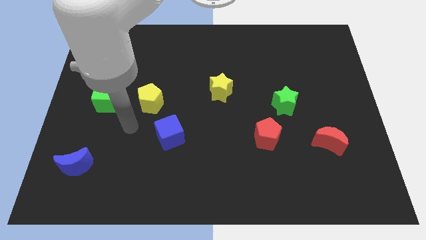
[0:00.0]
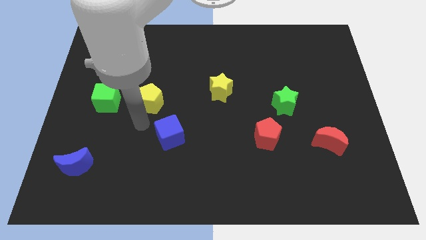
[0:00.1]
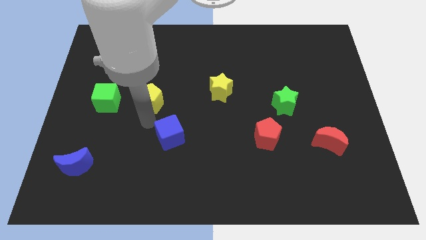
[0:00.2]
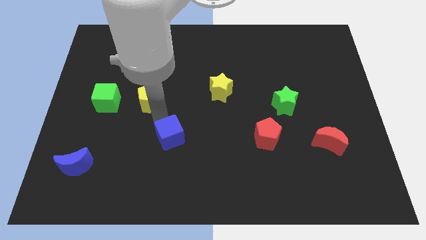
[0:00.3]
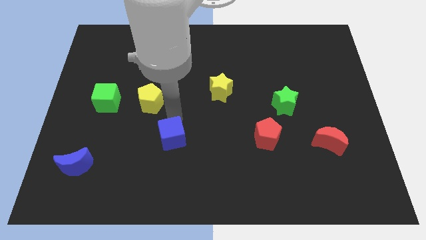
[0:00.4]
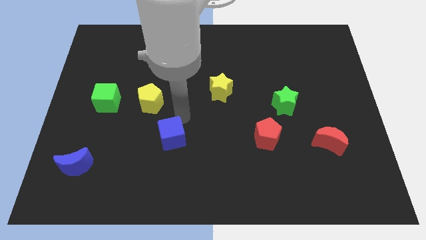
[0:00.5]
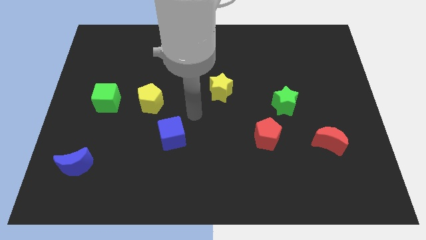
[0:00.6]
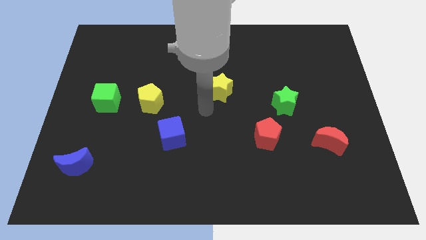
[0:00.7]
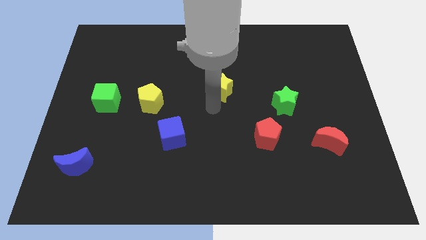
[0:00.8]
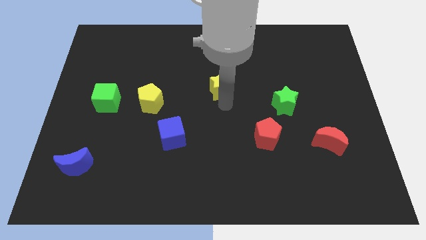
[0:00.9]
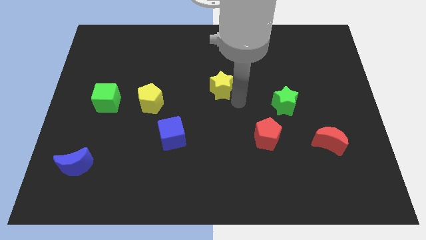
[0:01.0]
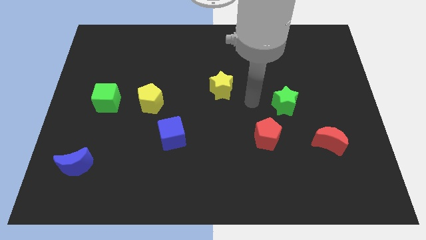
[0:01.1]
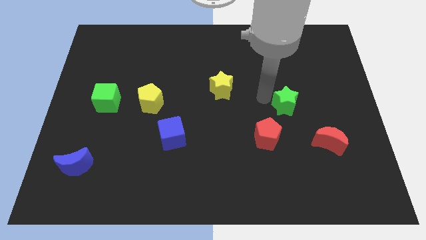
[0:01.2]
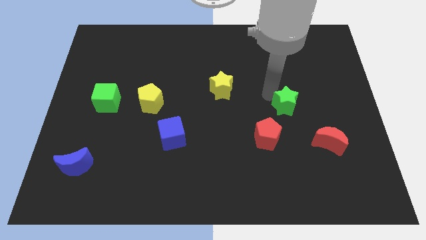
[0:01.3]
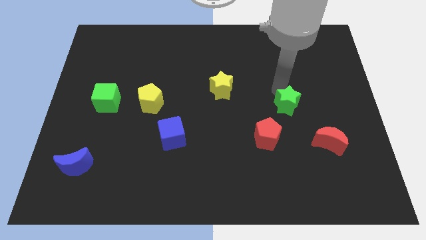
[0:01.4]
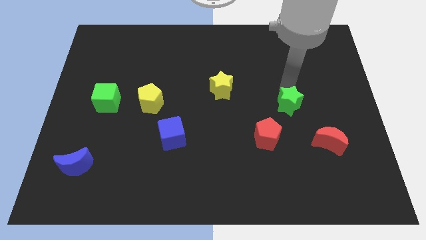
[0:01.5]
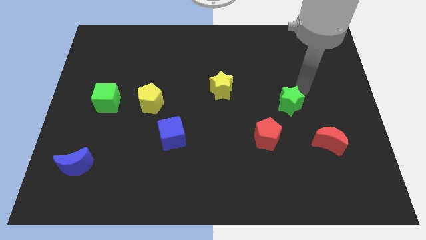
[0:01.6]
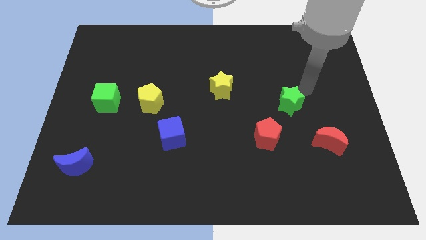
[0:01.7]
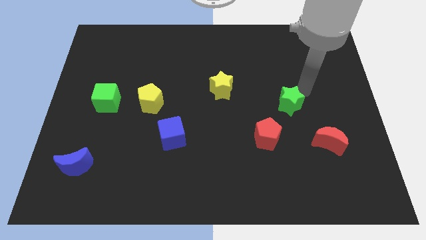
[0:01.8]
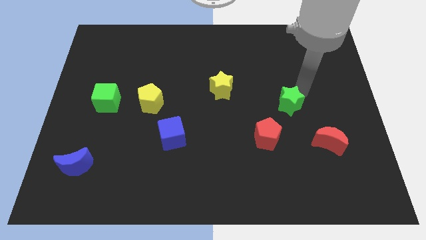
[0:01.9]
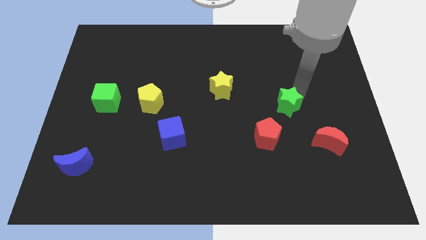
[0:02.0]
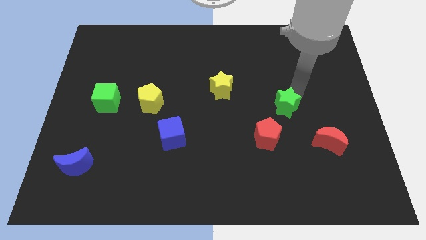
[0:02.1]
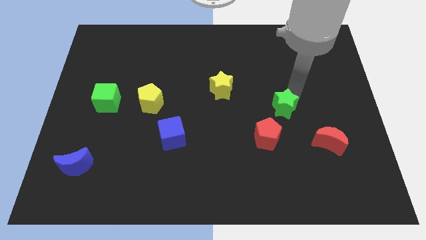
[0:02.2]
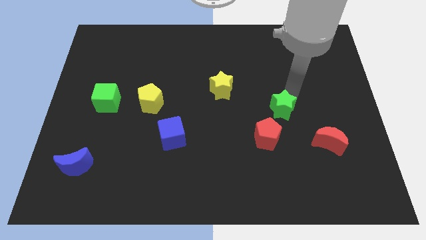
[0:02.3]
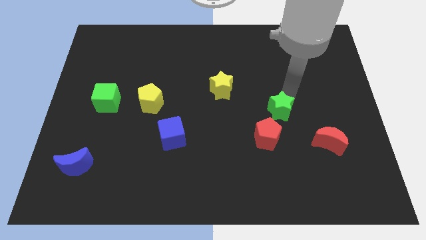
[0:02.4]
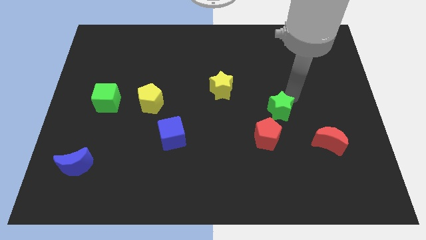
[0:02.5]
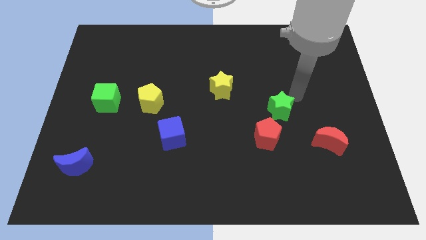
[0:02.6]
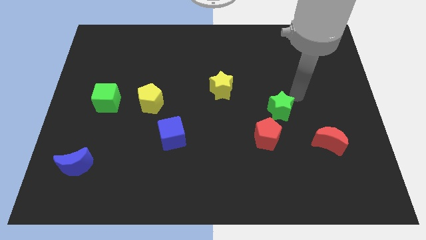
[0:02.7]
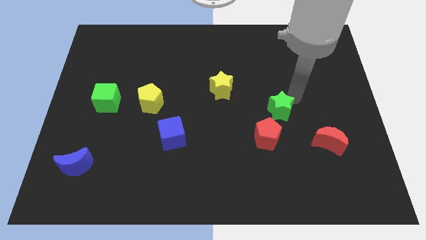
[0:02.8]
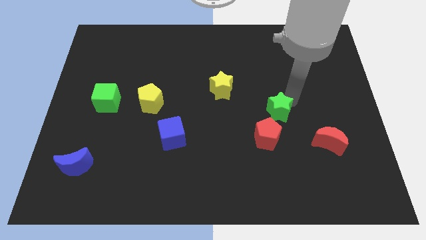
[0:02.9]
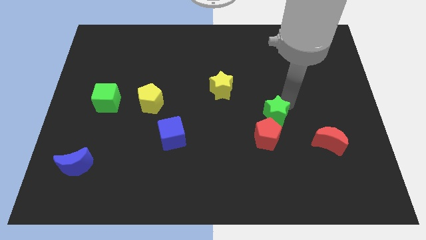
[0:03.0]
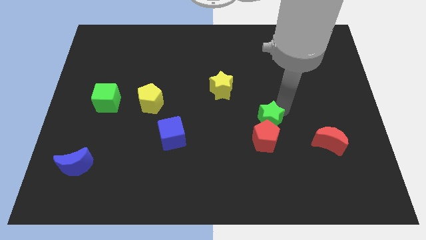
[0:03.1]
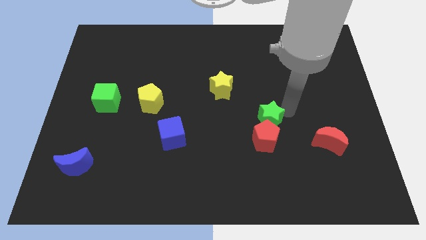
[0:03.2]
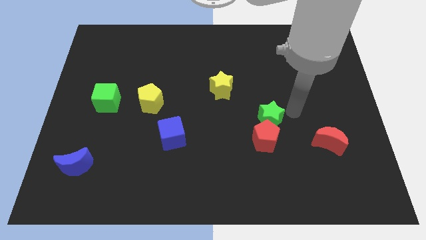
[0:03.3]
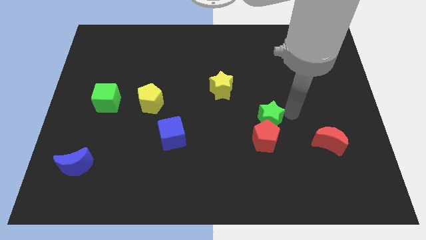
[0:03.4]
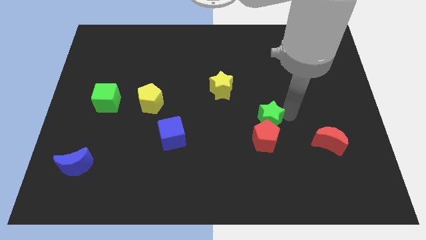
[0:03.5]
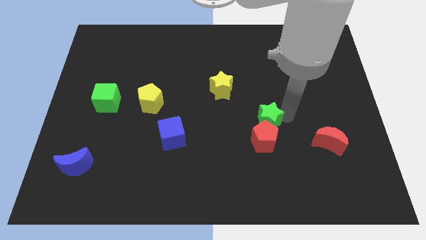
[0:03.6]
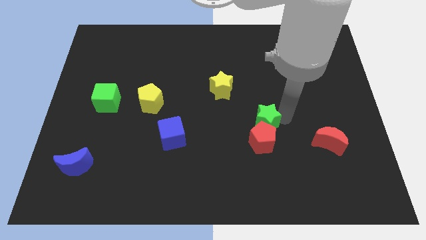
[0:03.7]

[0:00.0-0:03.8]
slightly push the green star diagonally down and left

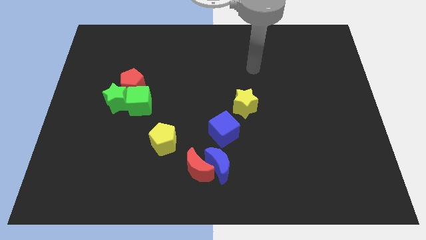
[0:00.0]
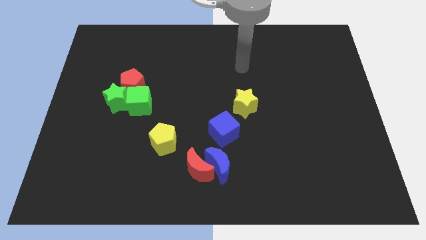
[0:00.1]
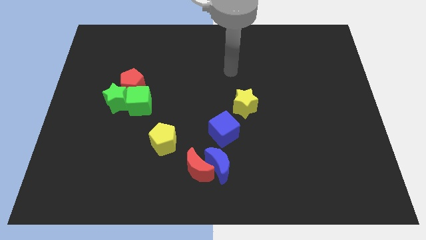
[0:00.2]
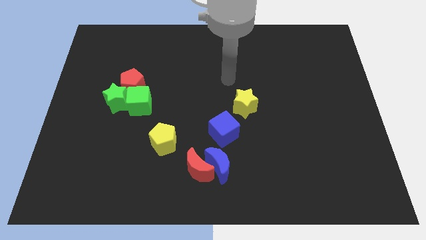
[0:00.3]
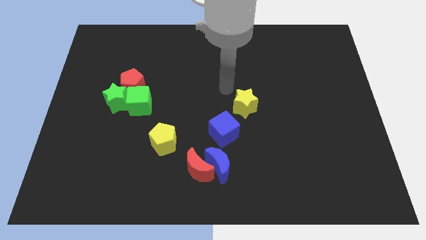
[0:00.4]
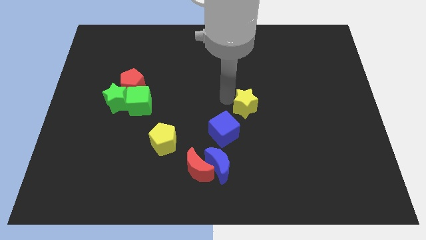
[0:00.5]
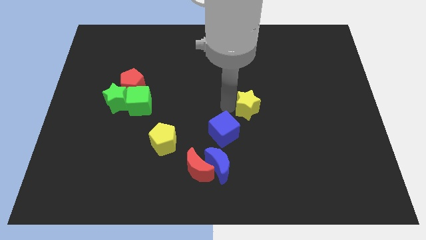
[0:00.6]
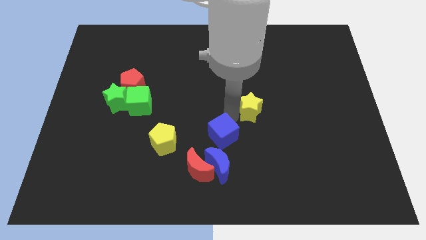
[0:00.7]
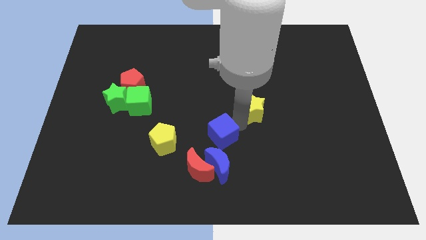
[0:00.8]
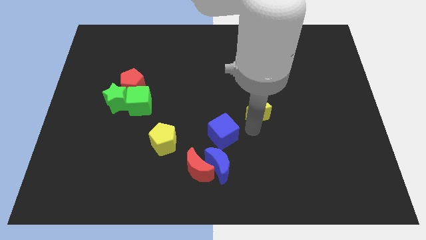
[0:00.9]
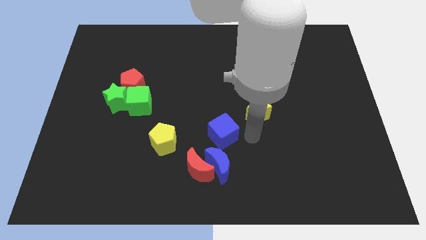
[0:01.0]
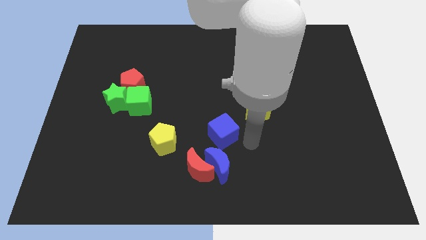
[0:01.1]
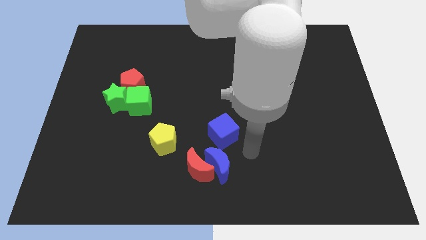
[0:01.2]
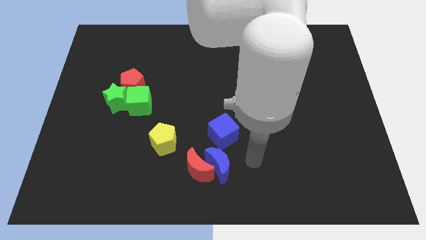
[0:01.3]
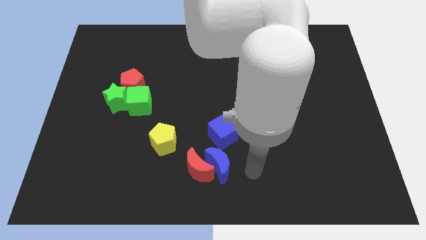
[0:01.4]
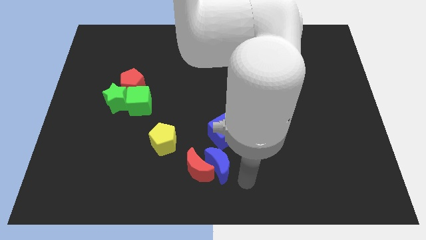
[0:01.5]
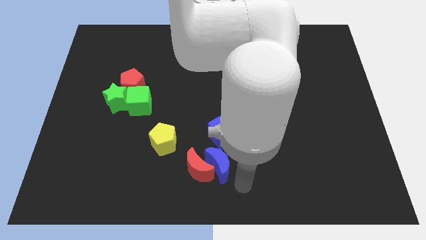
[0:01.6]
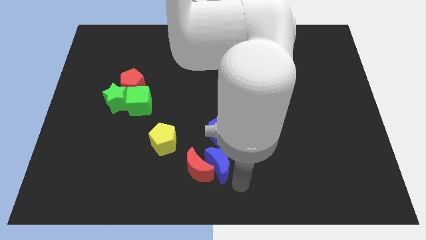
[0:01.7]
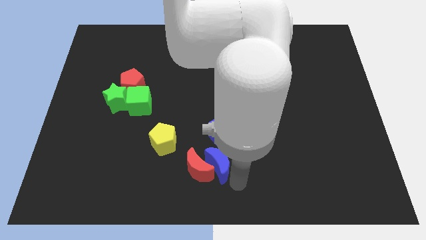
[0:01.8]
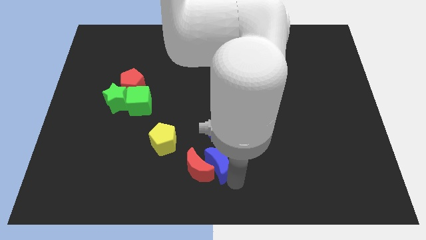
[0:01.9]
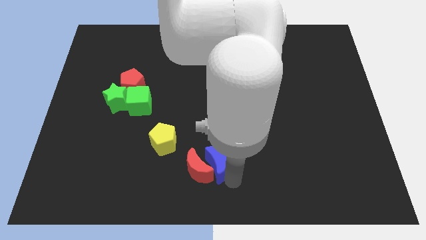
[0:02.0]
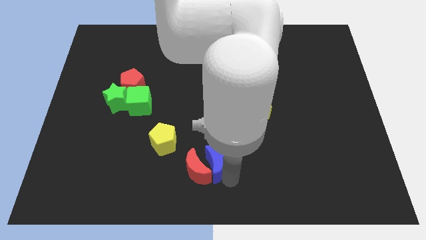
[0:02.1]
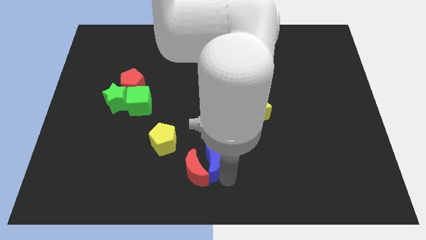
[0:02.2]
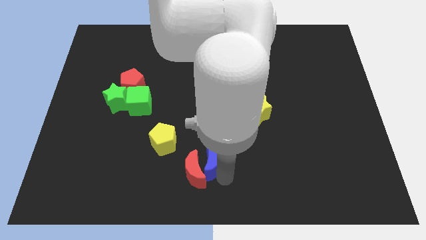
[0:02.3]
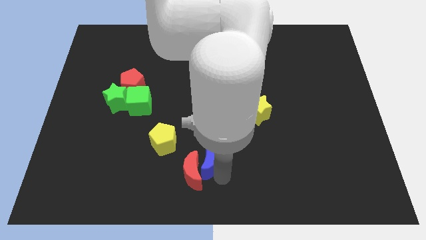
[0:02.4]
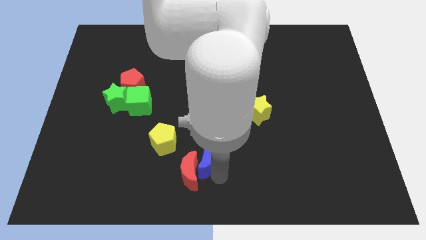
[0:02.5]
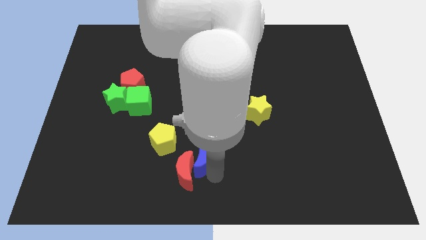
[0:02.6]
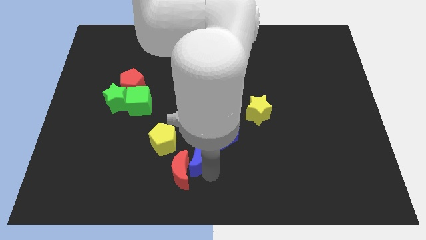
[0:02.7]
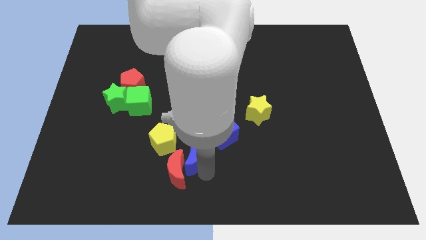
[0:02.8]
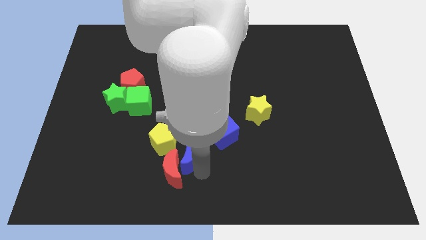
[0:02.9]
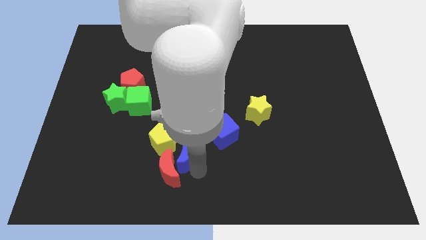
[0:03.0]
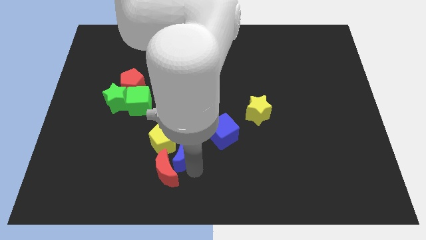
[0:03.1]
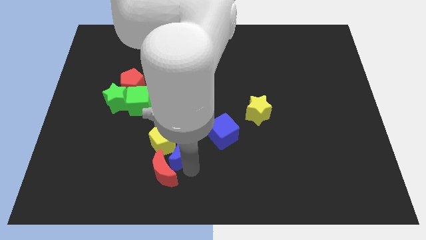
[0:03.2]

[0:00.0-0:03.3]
move the blue moon a little upwards and to the left

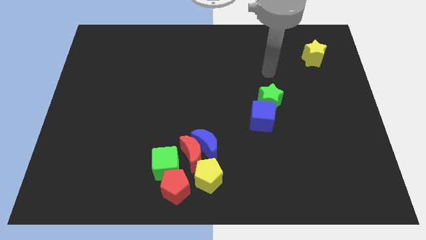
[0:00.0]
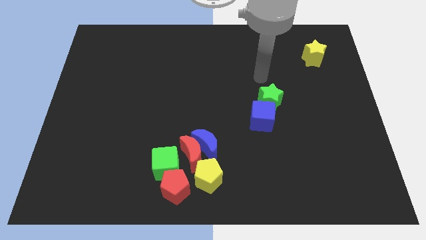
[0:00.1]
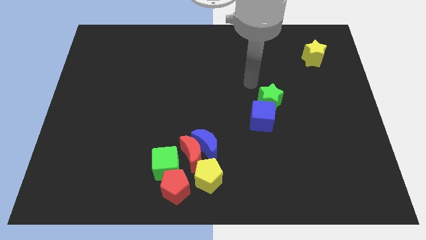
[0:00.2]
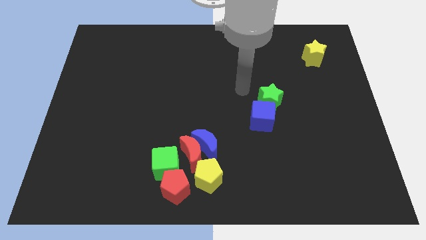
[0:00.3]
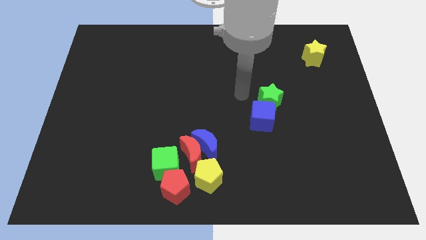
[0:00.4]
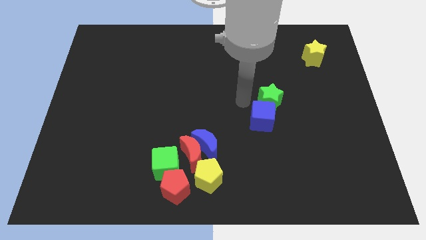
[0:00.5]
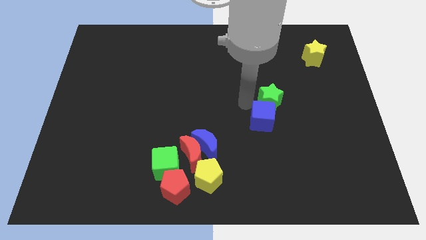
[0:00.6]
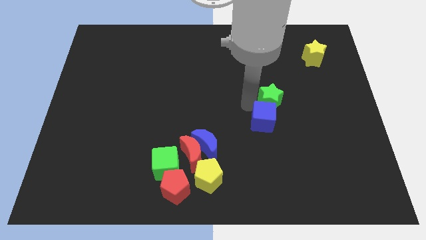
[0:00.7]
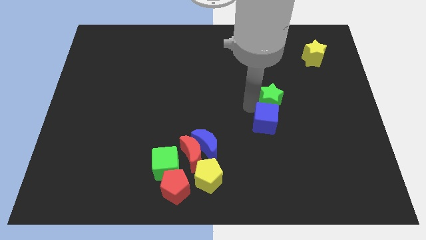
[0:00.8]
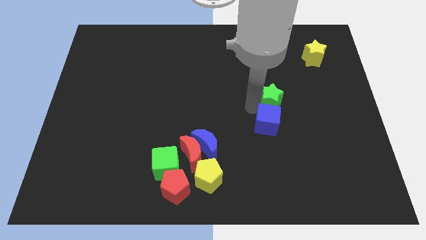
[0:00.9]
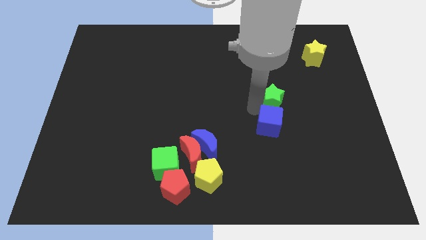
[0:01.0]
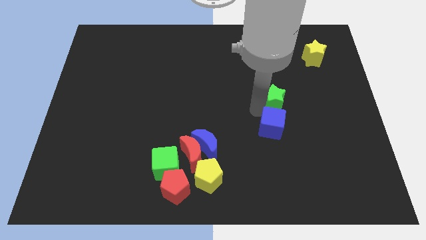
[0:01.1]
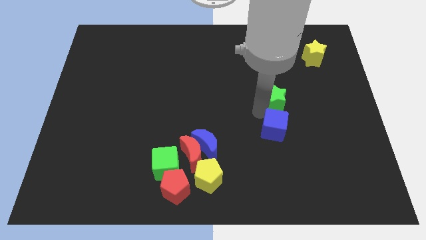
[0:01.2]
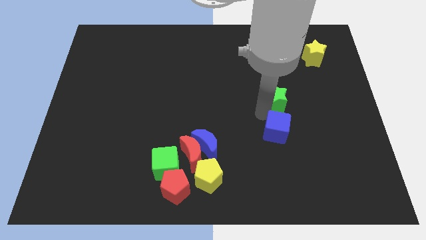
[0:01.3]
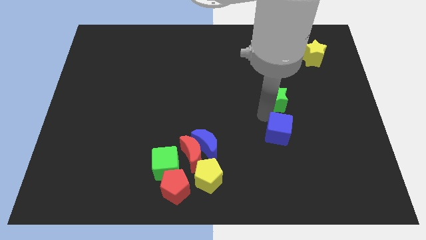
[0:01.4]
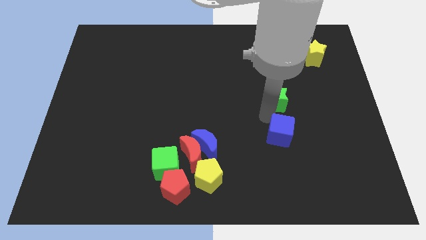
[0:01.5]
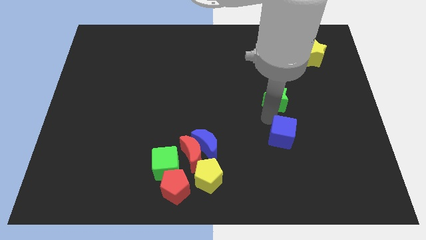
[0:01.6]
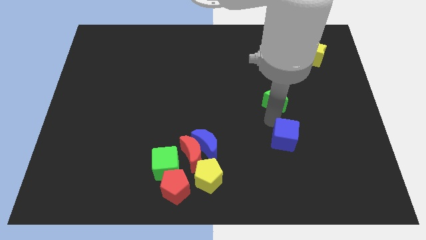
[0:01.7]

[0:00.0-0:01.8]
slide the blue cube diagonally down and to the right a little bit
